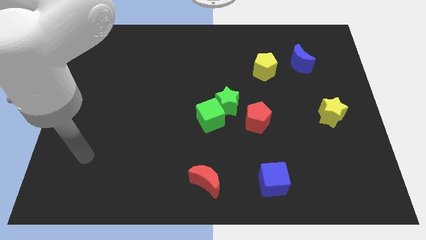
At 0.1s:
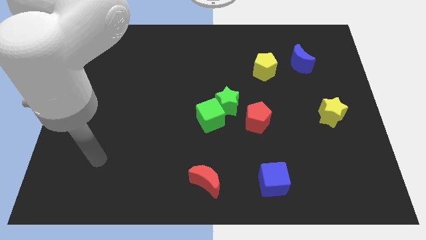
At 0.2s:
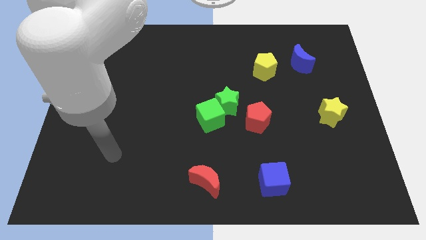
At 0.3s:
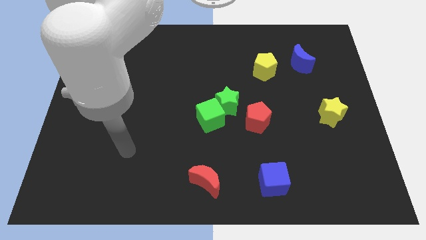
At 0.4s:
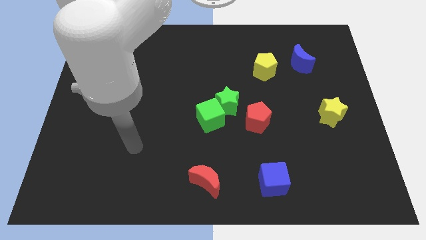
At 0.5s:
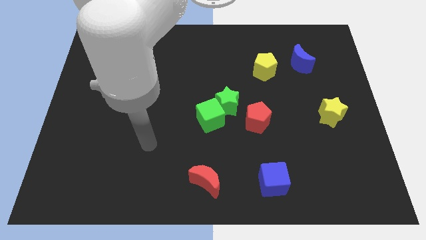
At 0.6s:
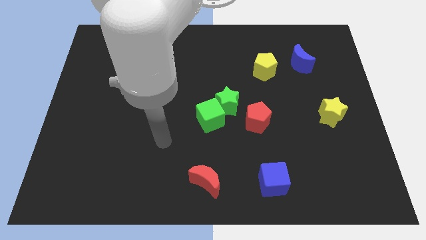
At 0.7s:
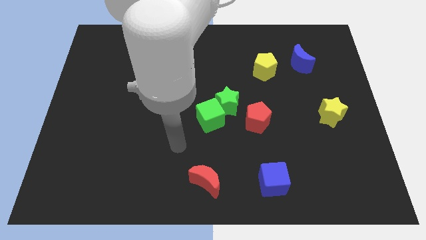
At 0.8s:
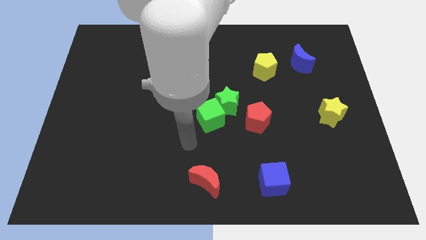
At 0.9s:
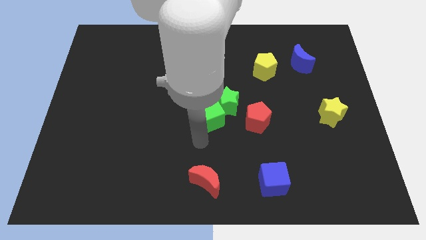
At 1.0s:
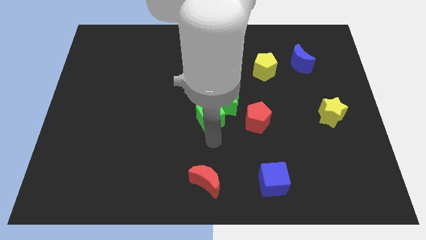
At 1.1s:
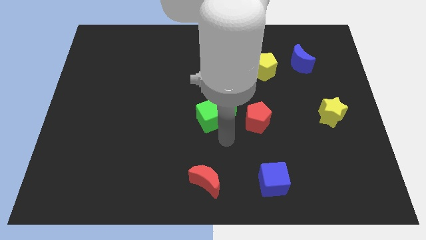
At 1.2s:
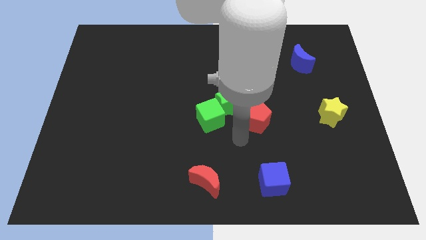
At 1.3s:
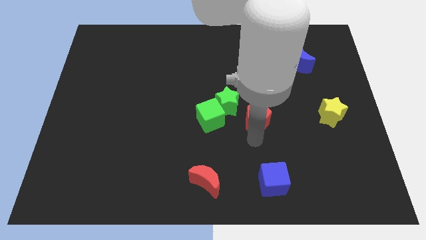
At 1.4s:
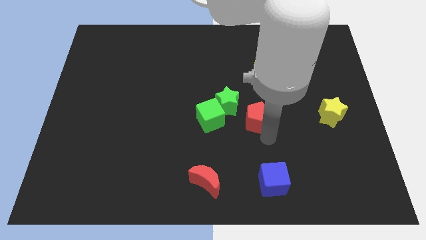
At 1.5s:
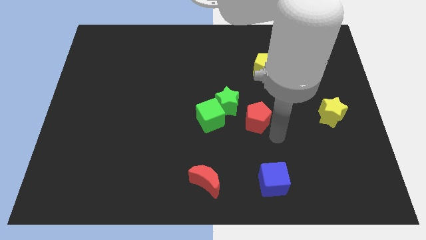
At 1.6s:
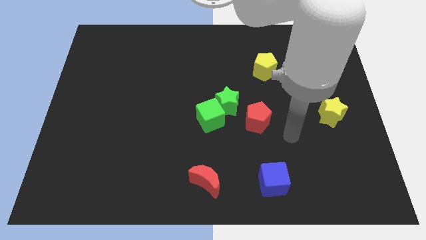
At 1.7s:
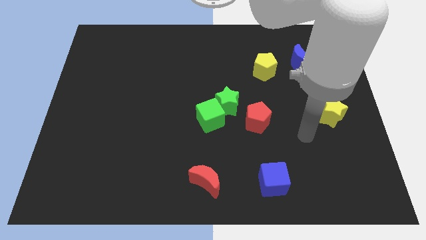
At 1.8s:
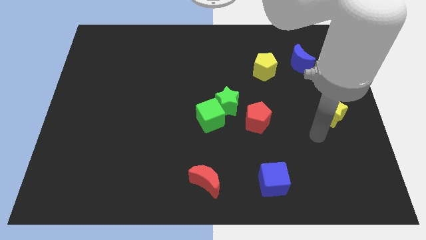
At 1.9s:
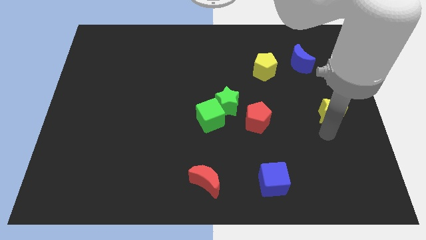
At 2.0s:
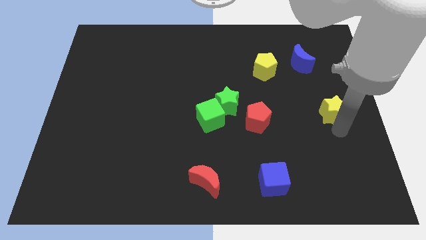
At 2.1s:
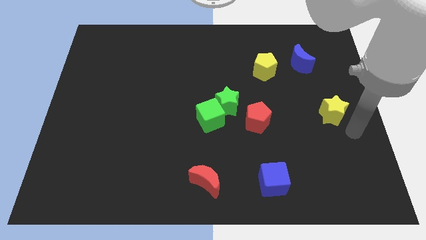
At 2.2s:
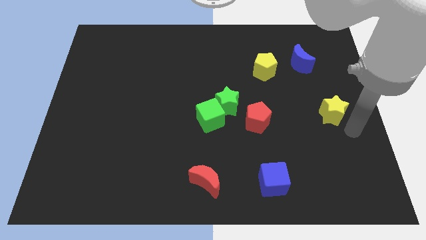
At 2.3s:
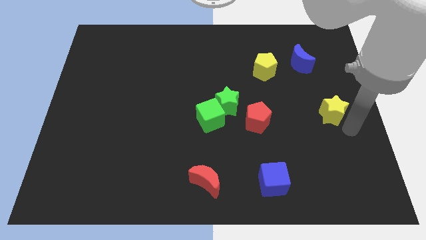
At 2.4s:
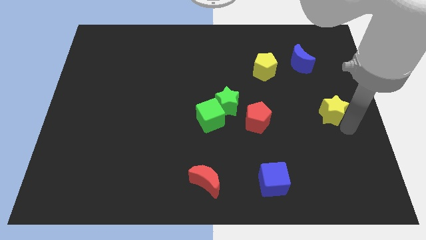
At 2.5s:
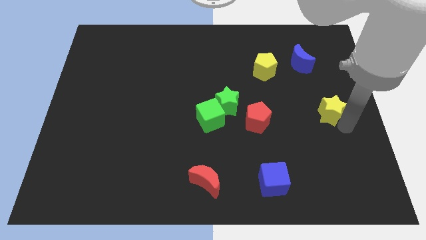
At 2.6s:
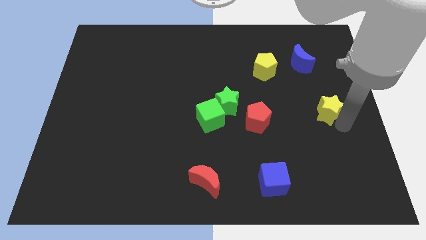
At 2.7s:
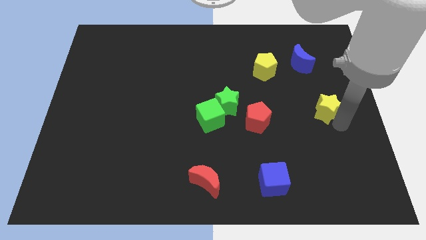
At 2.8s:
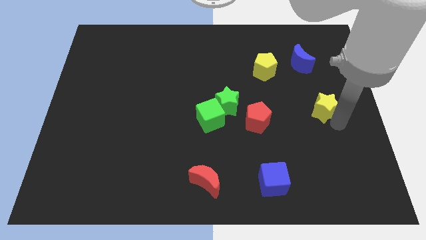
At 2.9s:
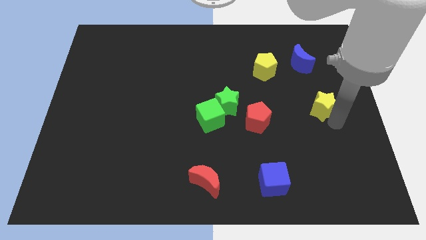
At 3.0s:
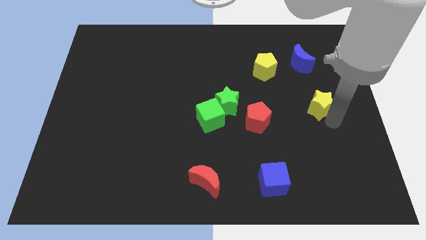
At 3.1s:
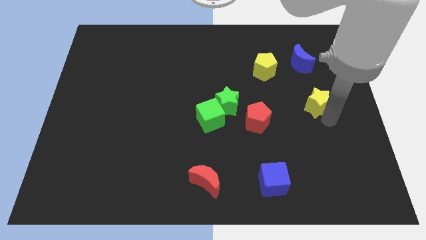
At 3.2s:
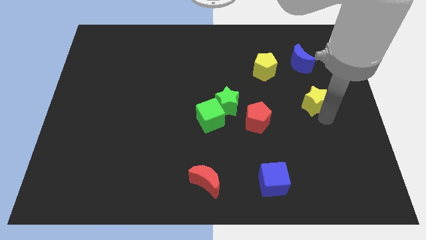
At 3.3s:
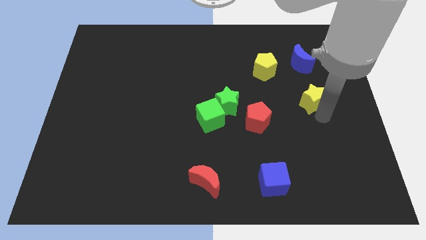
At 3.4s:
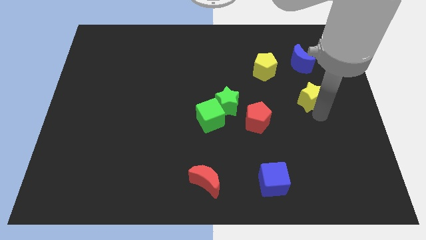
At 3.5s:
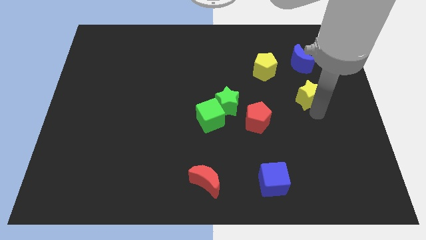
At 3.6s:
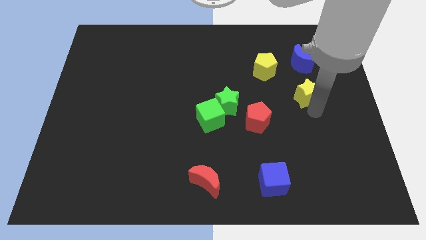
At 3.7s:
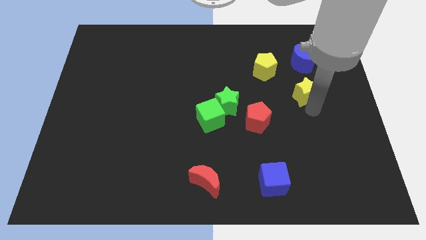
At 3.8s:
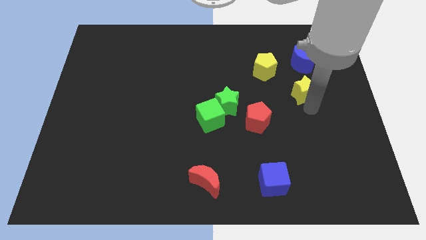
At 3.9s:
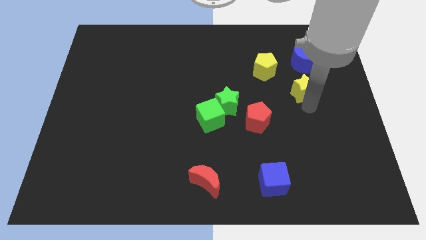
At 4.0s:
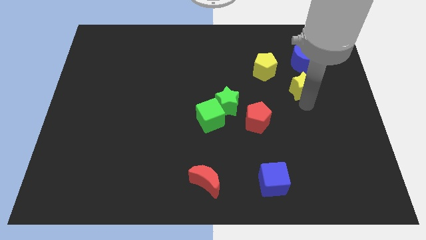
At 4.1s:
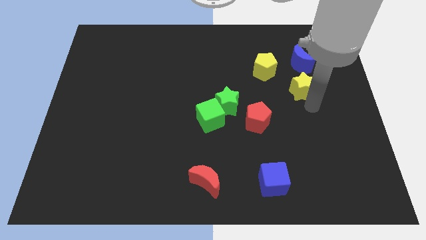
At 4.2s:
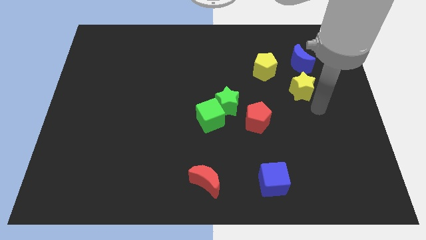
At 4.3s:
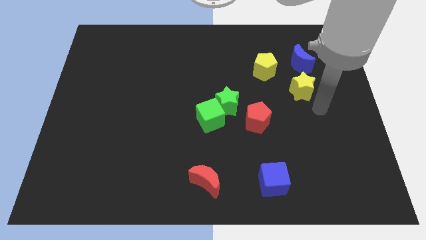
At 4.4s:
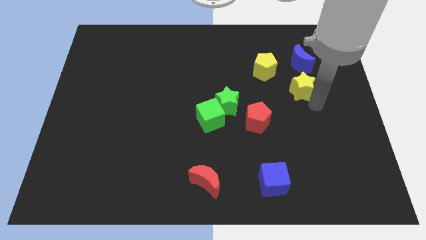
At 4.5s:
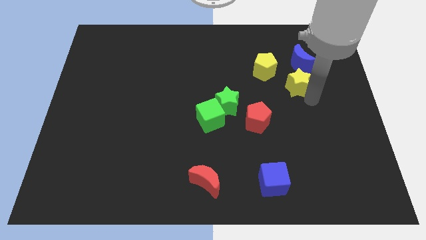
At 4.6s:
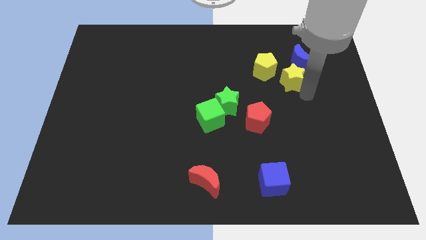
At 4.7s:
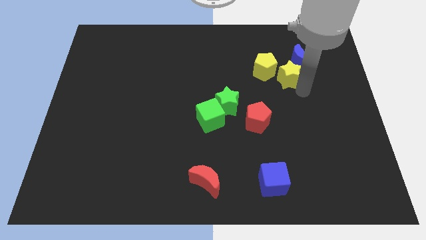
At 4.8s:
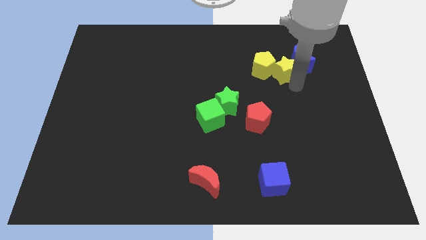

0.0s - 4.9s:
put the yellow star diagonally up and to the right of the yellow pentagon

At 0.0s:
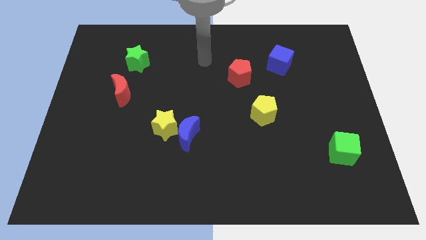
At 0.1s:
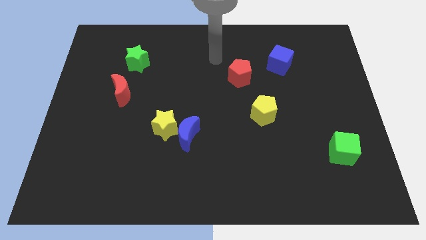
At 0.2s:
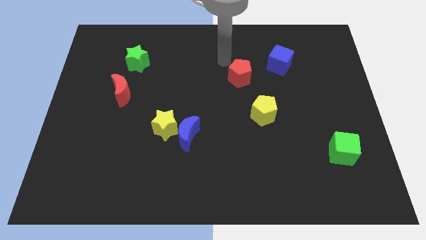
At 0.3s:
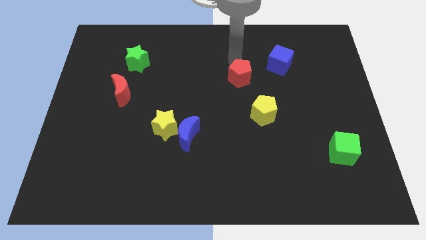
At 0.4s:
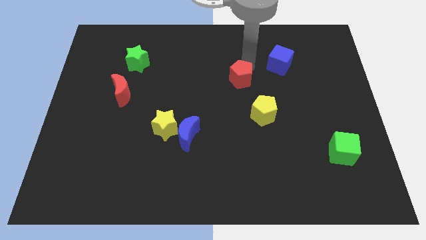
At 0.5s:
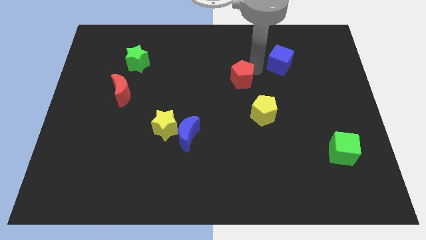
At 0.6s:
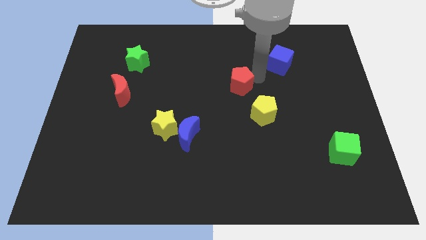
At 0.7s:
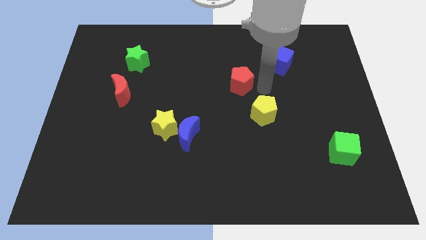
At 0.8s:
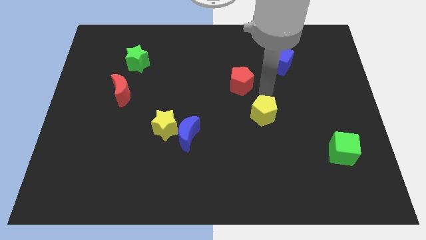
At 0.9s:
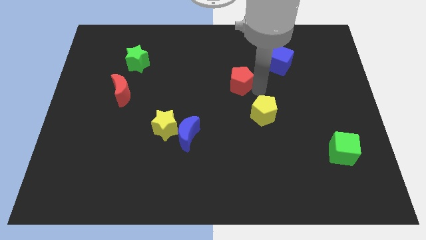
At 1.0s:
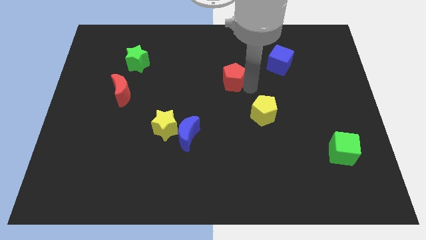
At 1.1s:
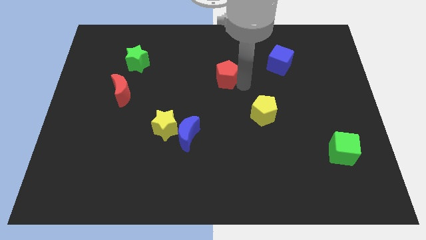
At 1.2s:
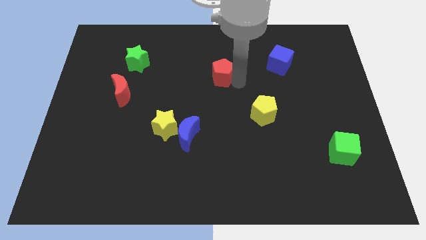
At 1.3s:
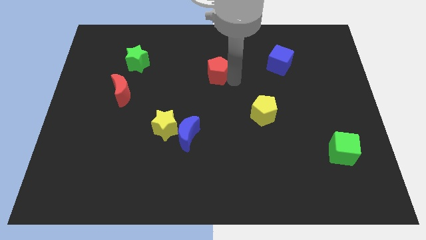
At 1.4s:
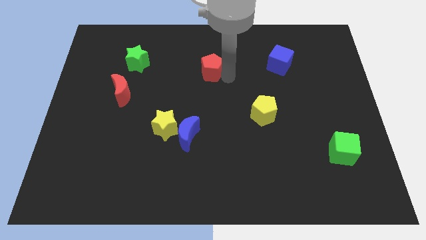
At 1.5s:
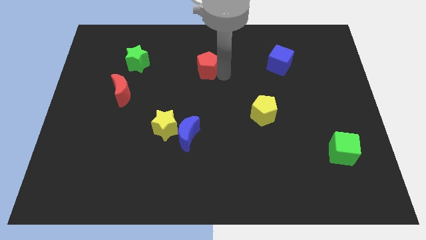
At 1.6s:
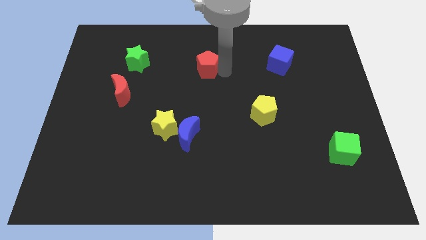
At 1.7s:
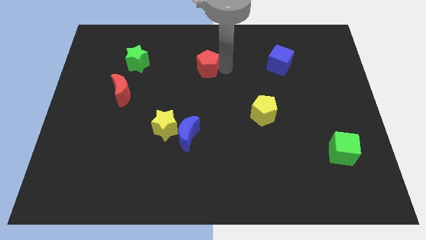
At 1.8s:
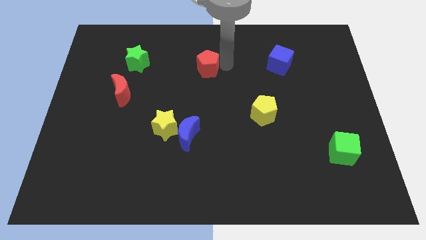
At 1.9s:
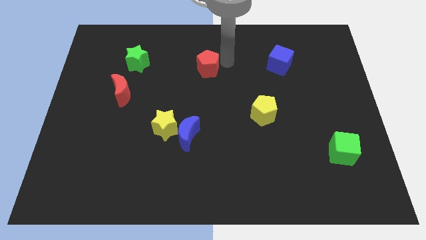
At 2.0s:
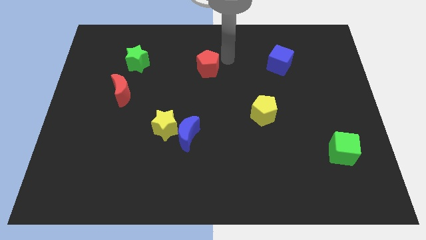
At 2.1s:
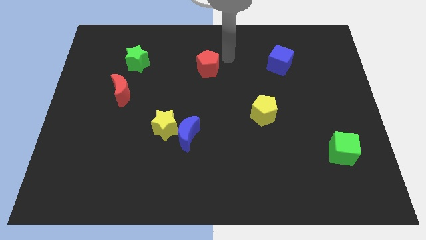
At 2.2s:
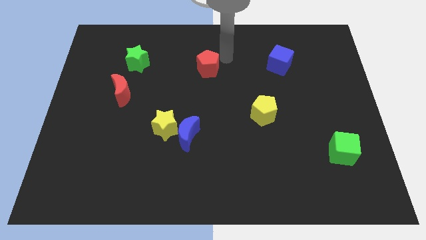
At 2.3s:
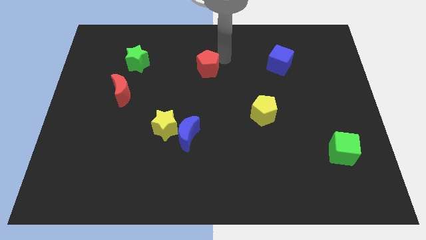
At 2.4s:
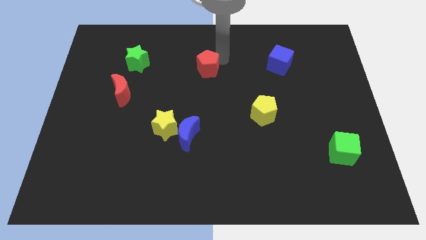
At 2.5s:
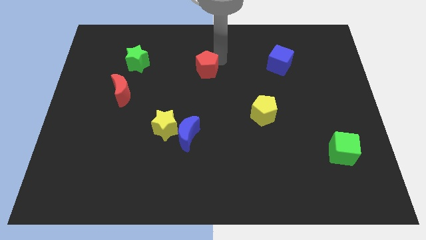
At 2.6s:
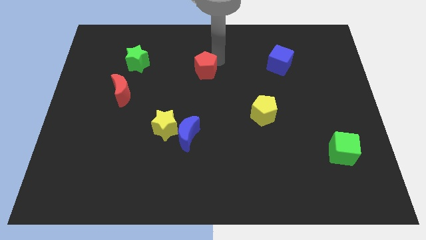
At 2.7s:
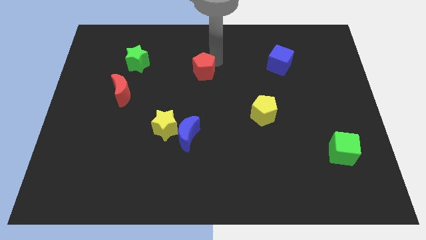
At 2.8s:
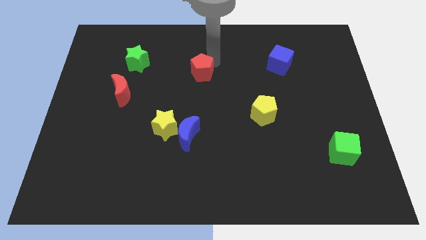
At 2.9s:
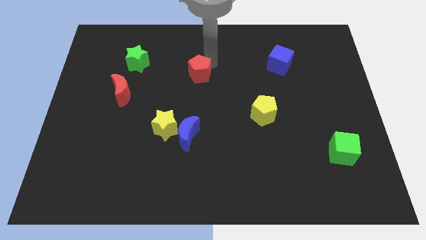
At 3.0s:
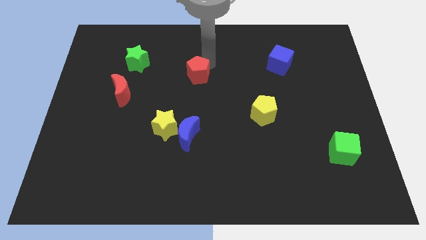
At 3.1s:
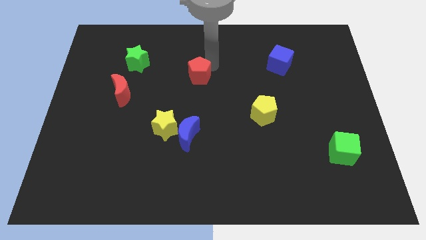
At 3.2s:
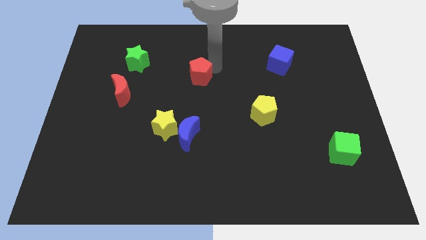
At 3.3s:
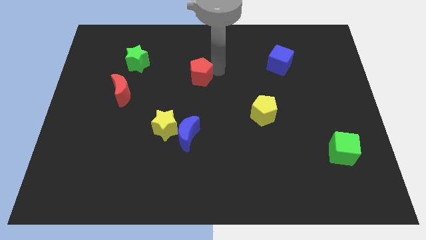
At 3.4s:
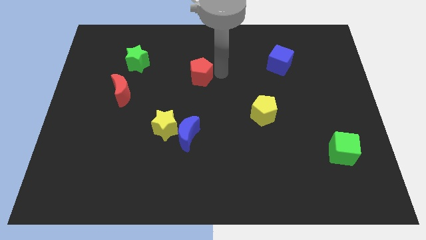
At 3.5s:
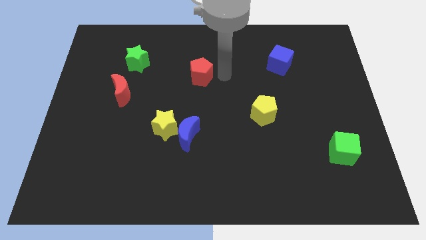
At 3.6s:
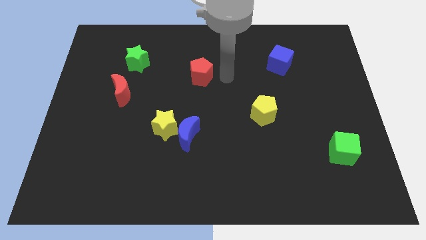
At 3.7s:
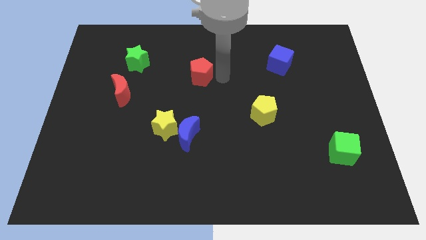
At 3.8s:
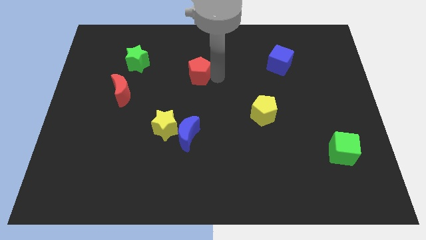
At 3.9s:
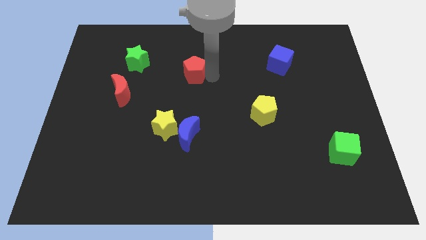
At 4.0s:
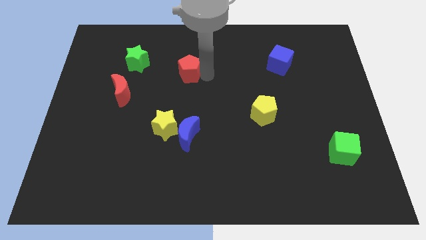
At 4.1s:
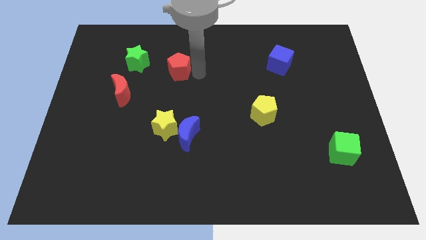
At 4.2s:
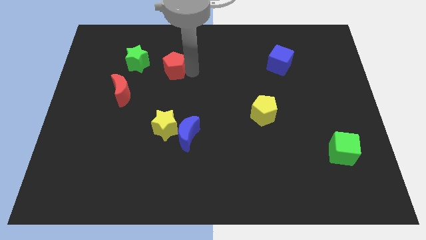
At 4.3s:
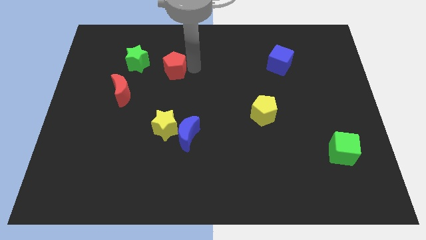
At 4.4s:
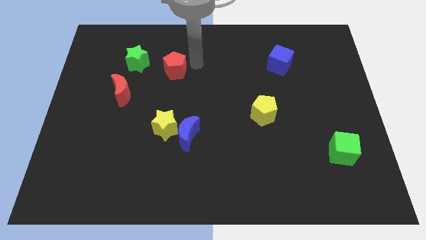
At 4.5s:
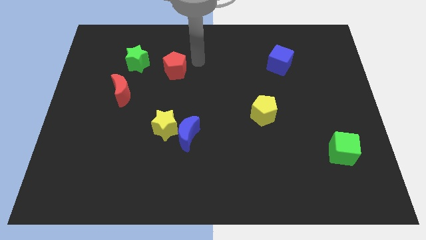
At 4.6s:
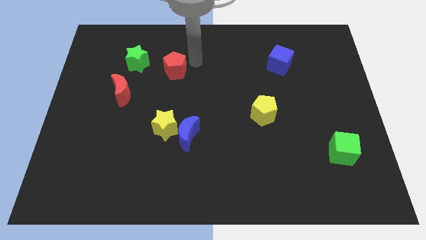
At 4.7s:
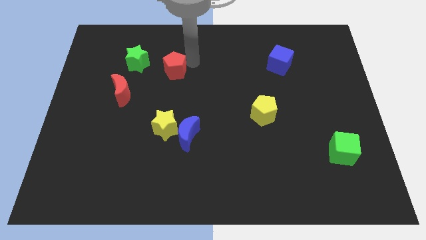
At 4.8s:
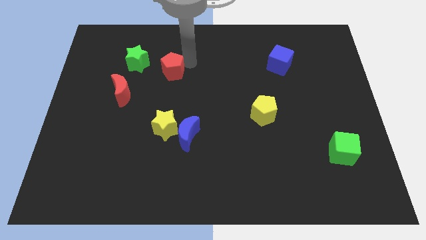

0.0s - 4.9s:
push the red pentagon to the bottom right of the green star
